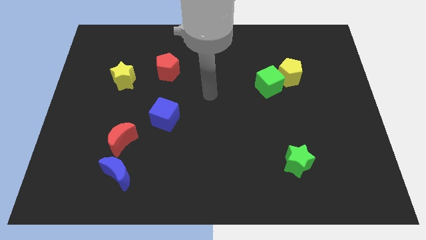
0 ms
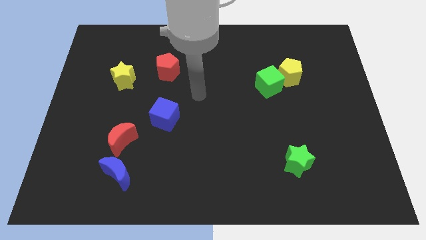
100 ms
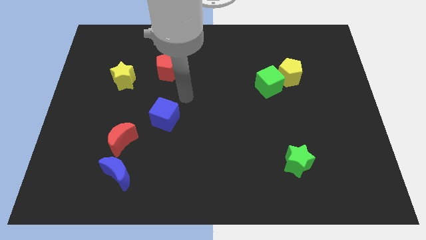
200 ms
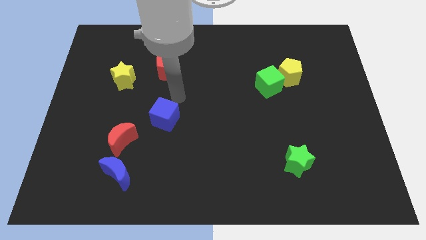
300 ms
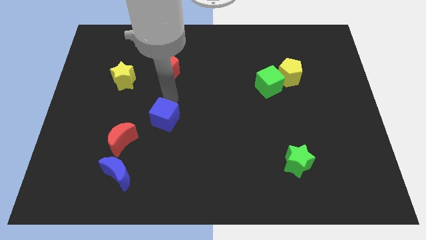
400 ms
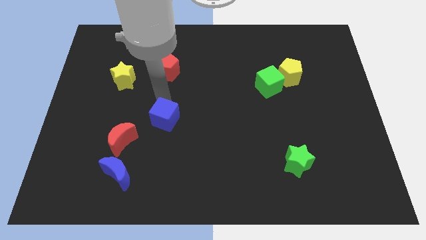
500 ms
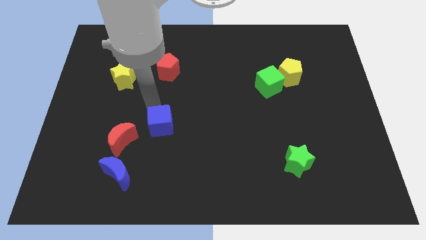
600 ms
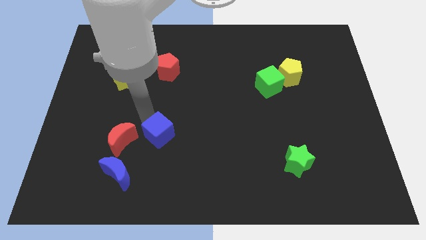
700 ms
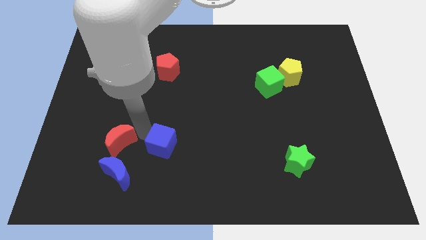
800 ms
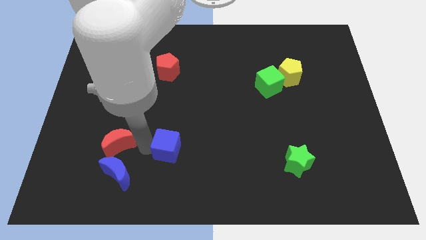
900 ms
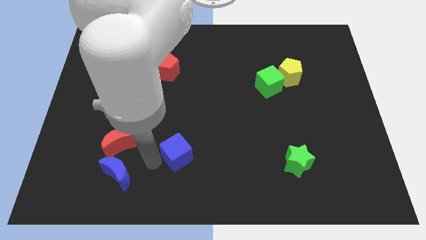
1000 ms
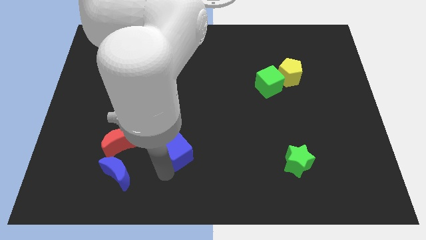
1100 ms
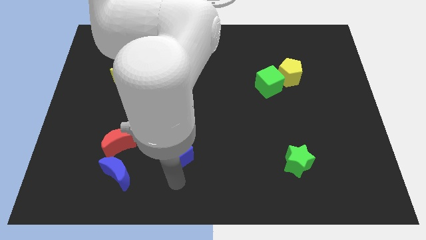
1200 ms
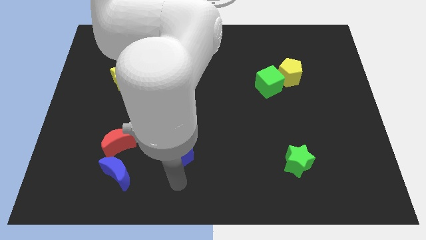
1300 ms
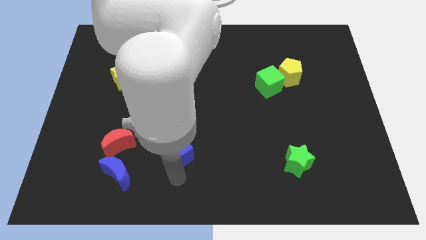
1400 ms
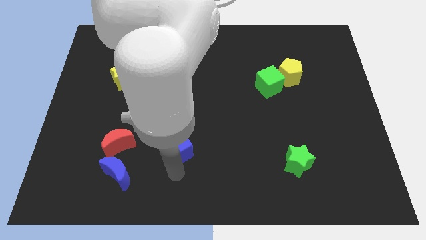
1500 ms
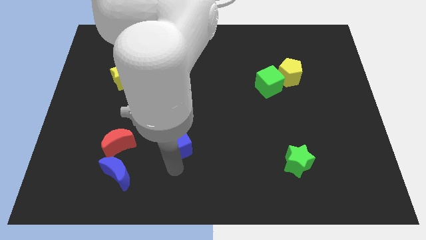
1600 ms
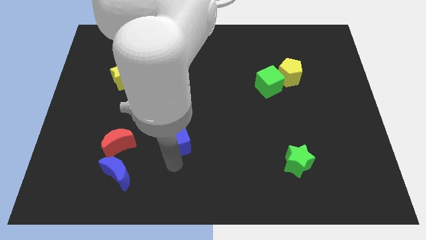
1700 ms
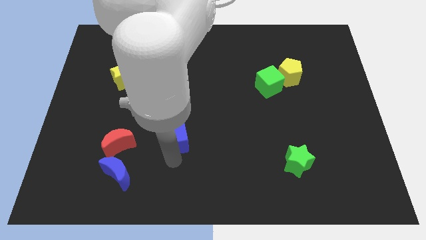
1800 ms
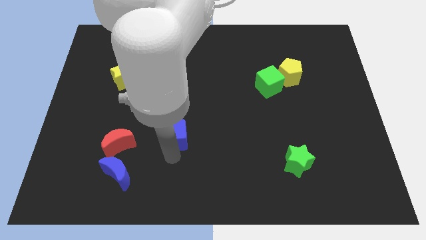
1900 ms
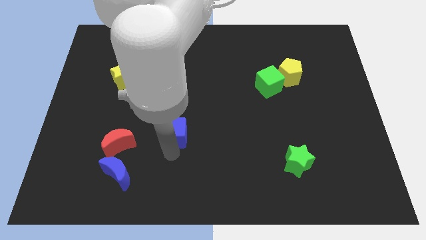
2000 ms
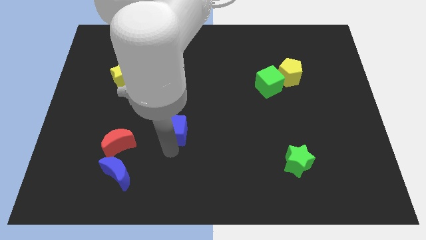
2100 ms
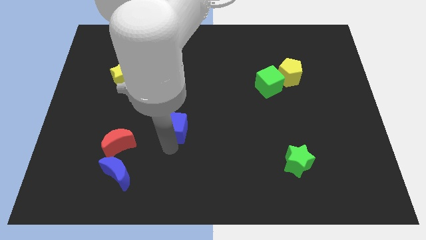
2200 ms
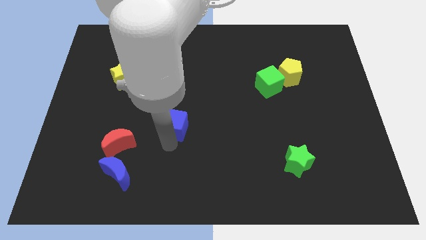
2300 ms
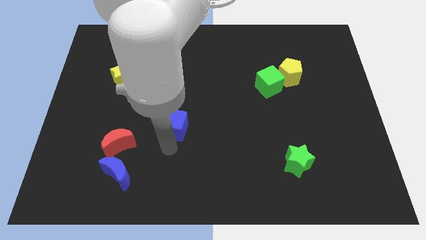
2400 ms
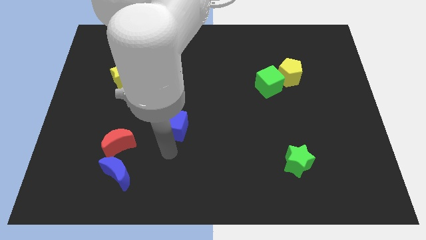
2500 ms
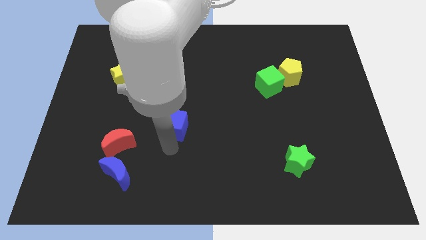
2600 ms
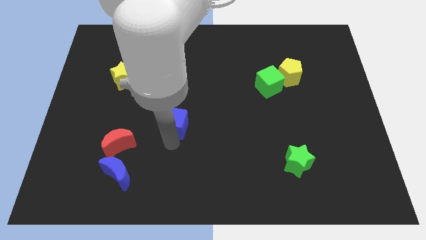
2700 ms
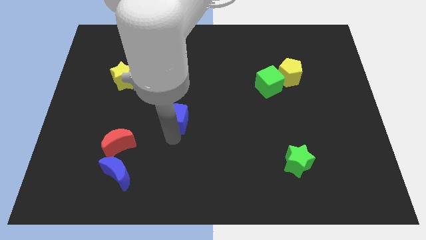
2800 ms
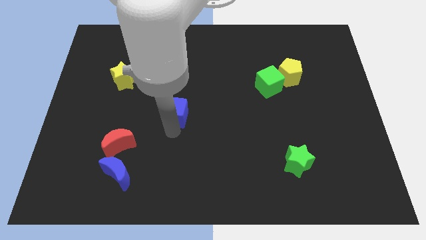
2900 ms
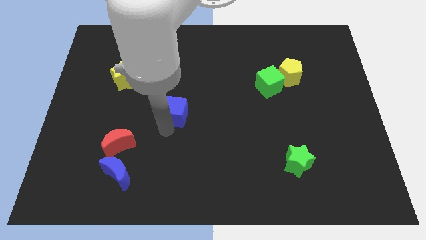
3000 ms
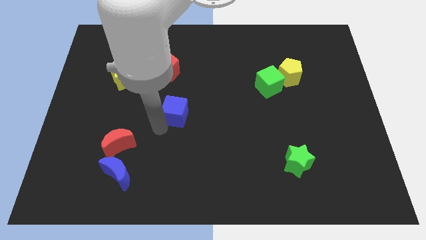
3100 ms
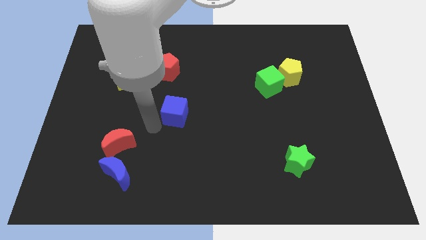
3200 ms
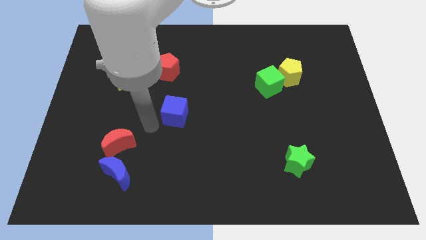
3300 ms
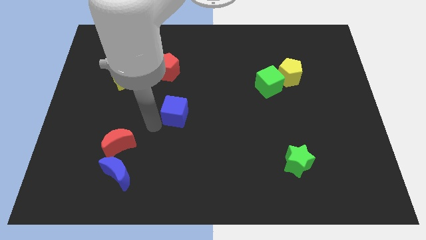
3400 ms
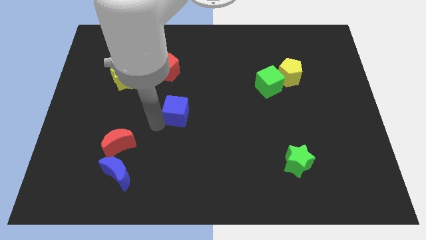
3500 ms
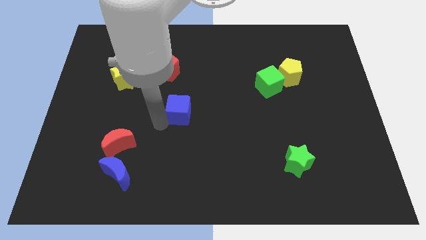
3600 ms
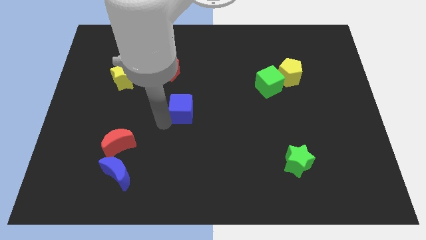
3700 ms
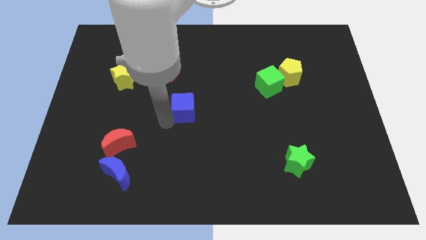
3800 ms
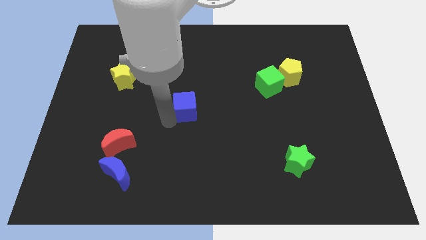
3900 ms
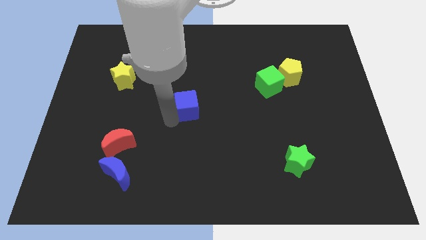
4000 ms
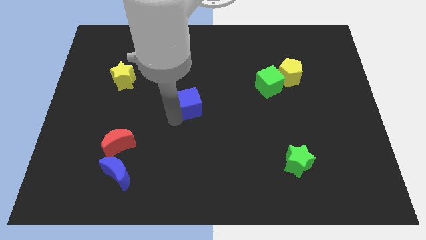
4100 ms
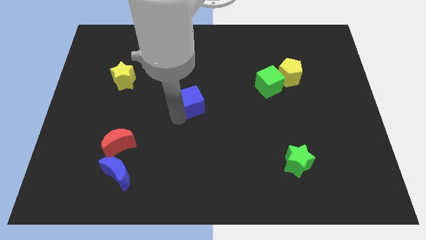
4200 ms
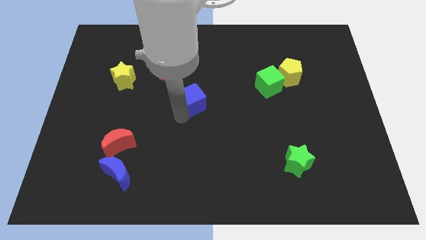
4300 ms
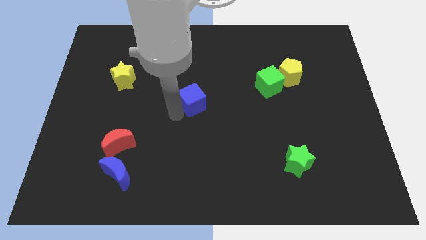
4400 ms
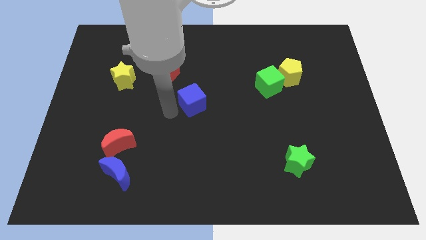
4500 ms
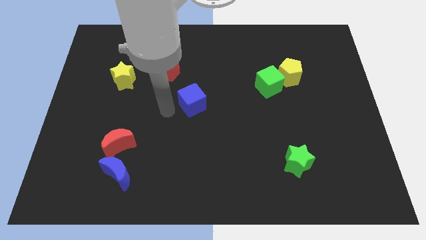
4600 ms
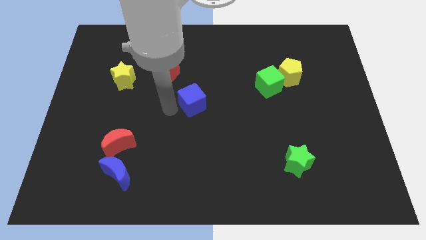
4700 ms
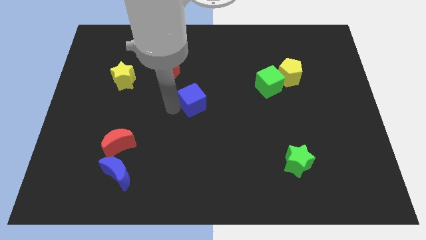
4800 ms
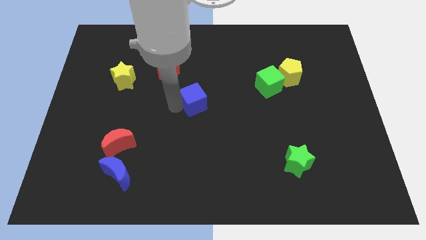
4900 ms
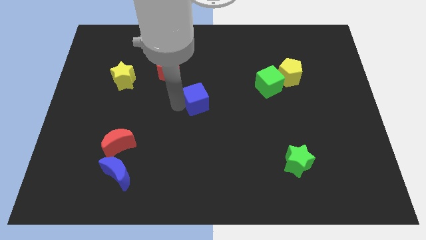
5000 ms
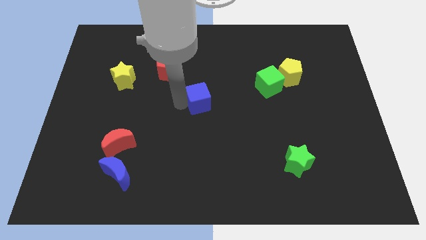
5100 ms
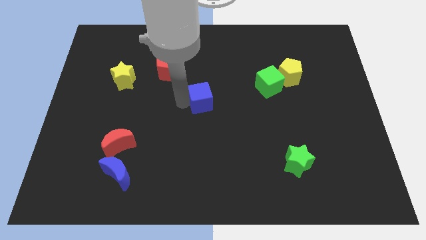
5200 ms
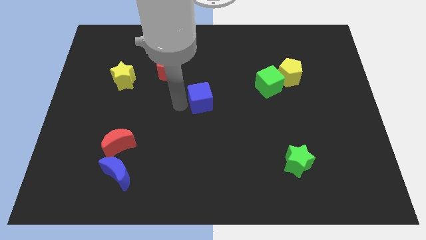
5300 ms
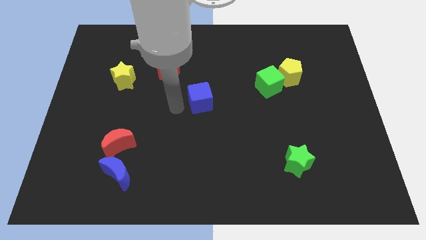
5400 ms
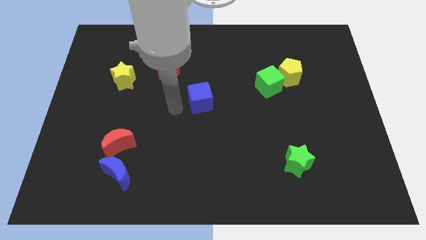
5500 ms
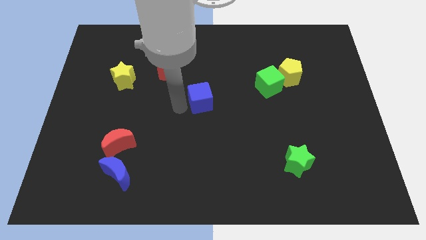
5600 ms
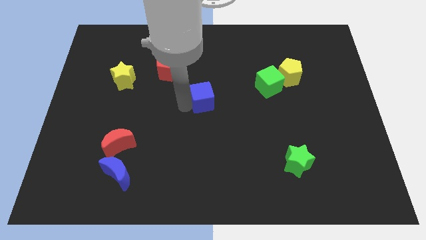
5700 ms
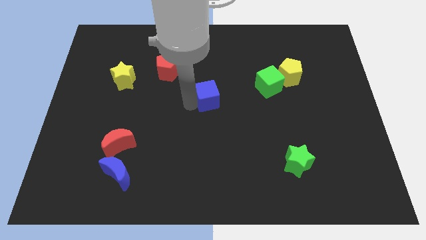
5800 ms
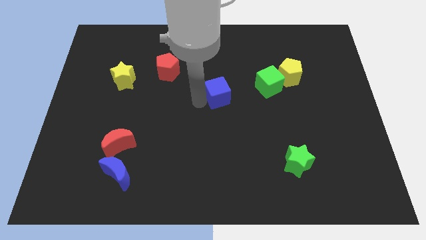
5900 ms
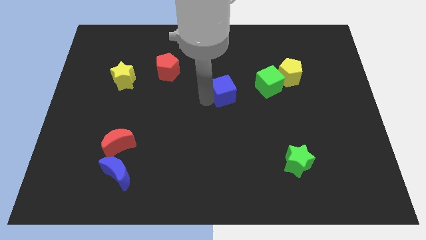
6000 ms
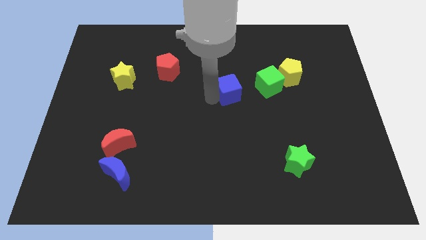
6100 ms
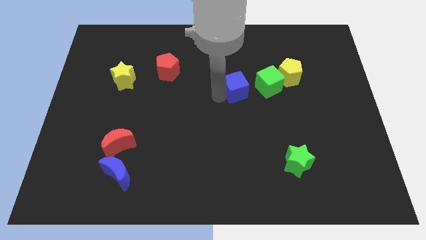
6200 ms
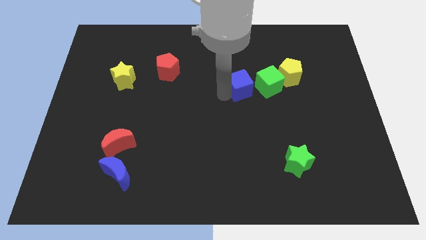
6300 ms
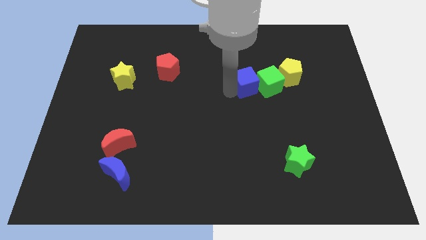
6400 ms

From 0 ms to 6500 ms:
move the blue cube towards the green cube

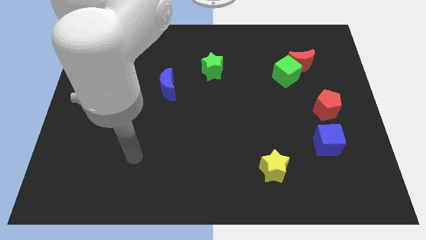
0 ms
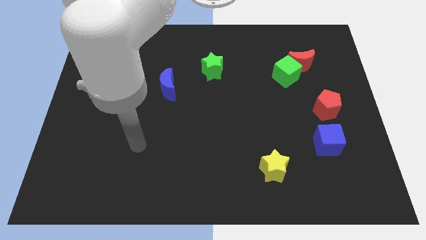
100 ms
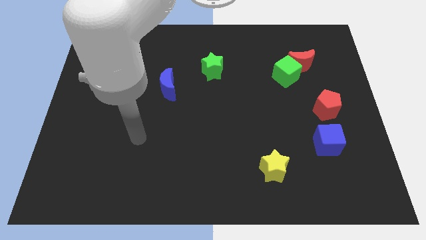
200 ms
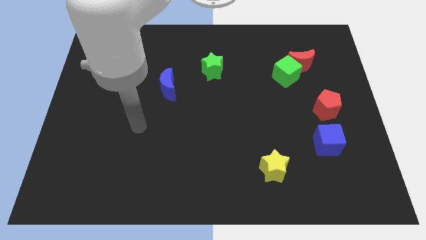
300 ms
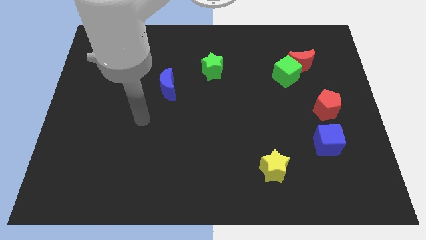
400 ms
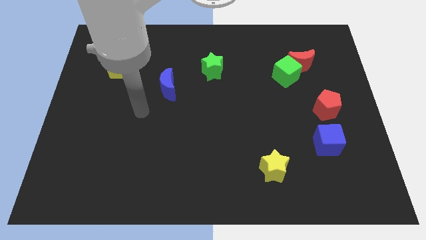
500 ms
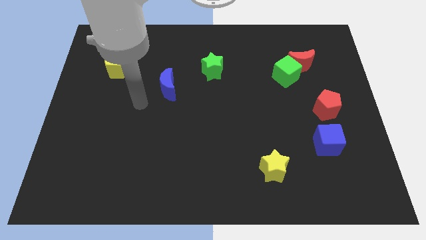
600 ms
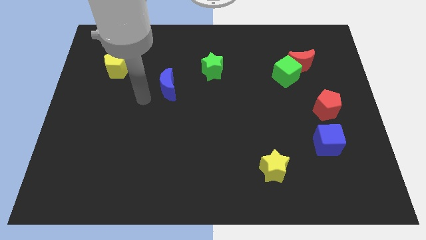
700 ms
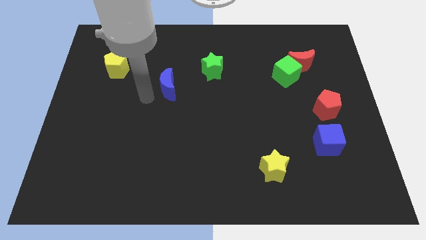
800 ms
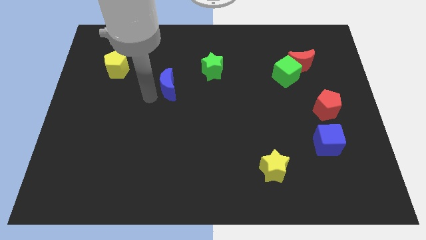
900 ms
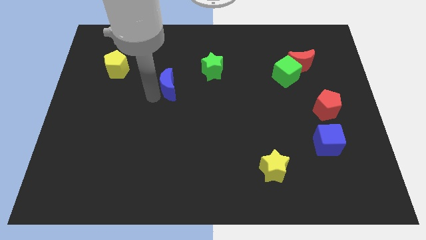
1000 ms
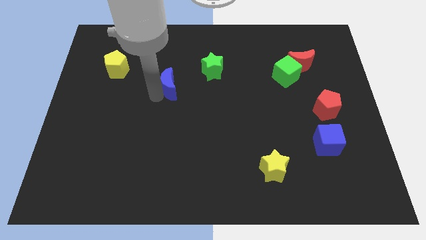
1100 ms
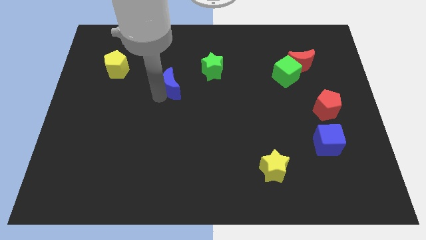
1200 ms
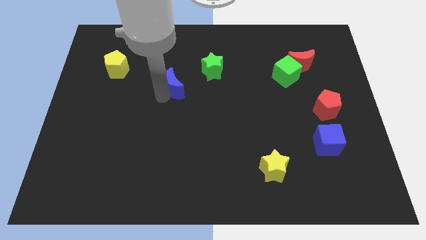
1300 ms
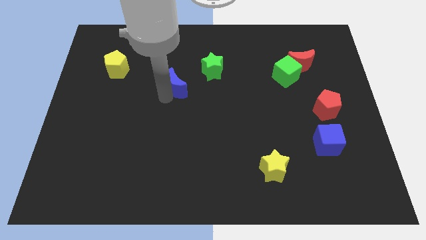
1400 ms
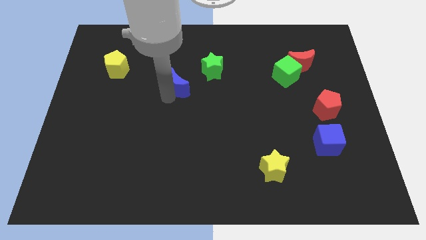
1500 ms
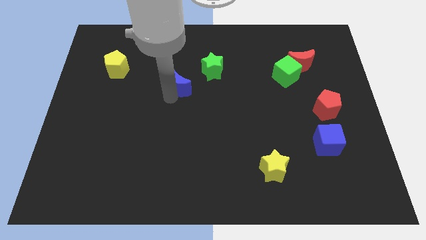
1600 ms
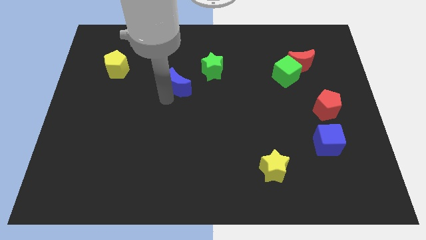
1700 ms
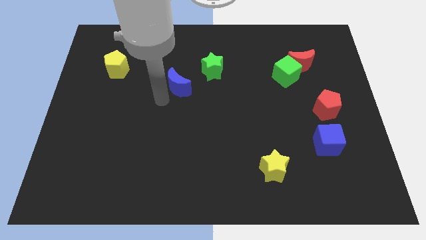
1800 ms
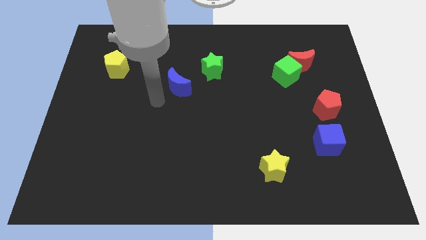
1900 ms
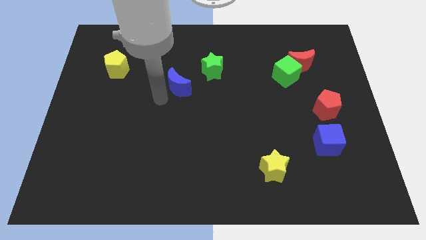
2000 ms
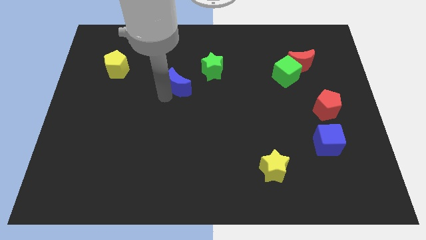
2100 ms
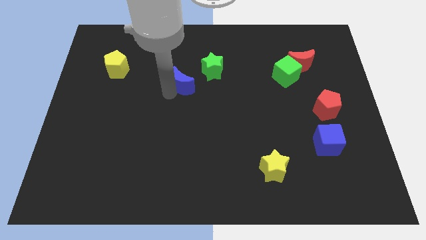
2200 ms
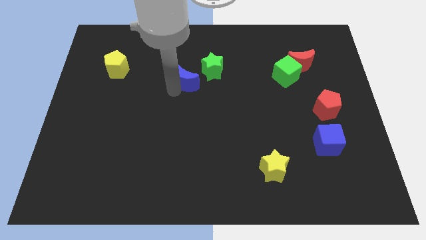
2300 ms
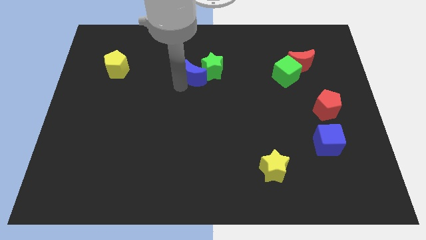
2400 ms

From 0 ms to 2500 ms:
push the blue moon to the green star
